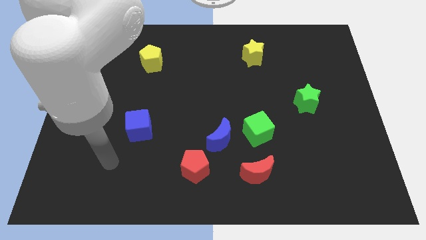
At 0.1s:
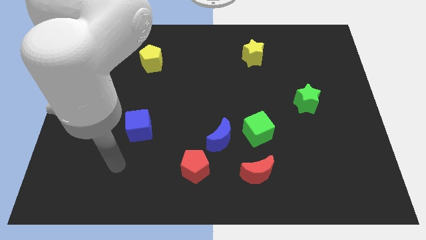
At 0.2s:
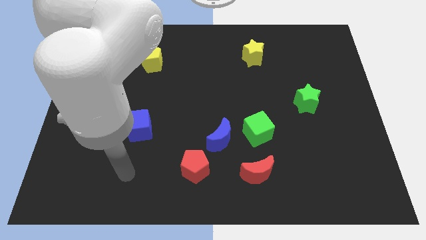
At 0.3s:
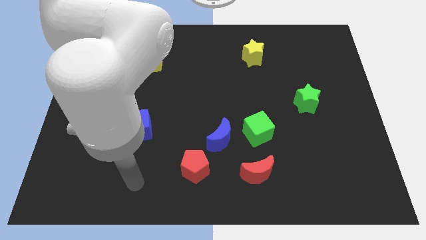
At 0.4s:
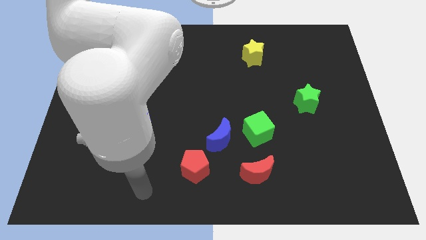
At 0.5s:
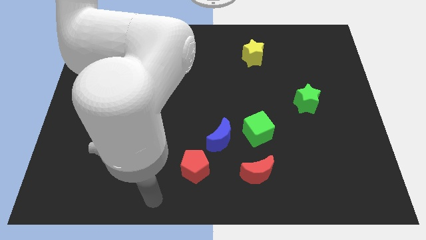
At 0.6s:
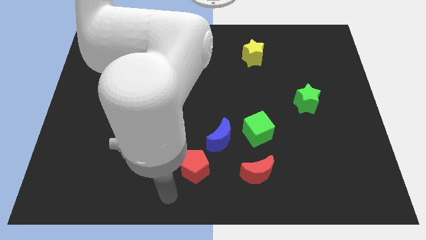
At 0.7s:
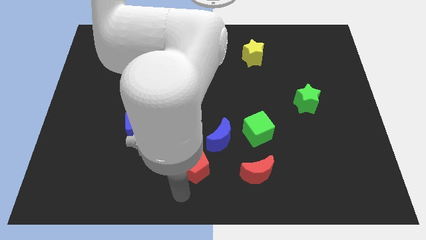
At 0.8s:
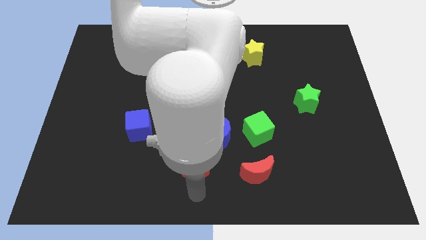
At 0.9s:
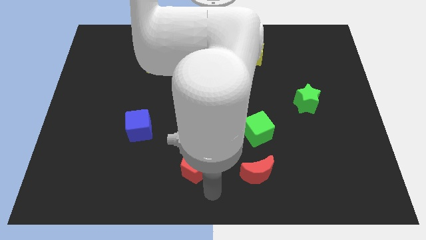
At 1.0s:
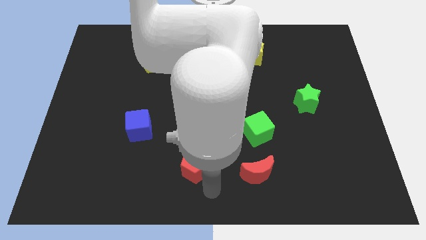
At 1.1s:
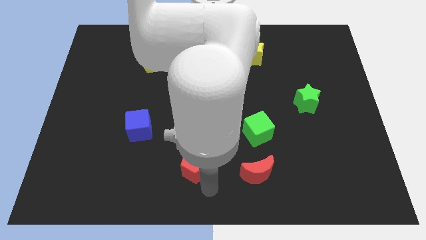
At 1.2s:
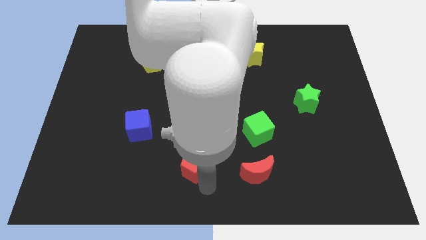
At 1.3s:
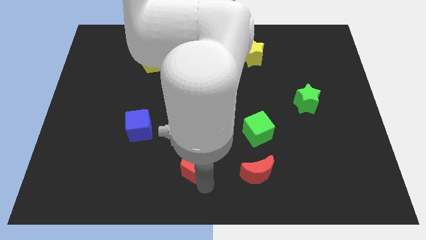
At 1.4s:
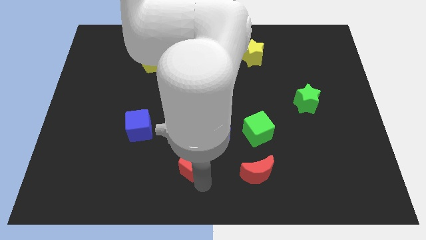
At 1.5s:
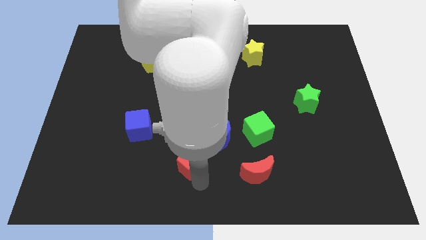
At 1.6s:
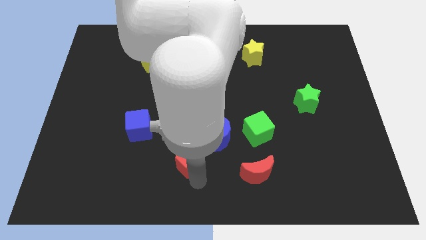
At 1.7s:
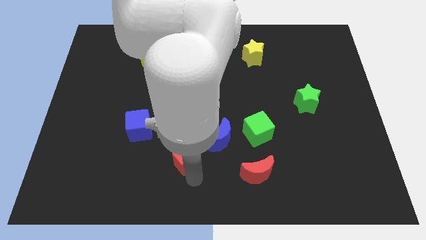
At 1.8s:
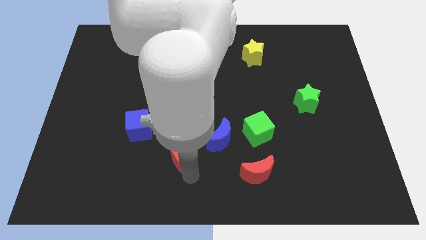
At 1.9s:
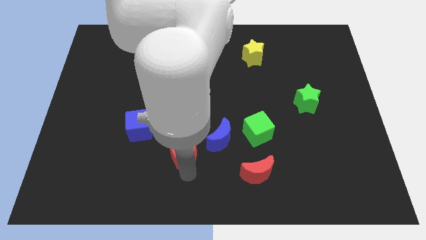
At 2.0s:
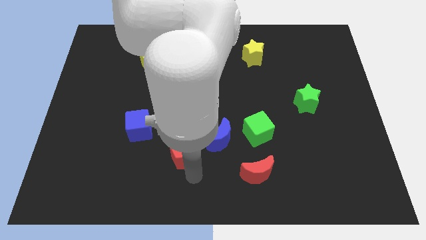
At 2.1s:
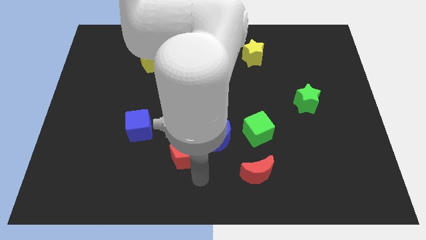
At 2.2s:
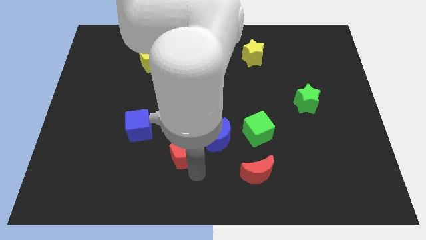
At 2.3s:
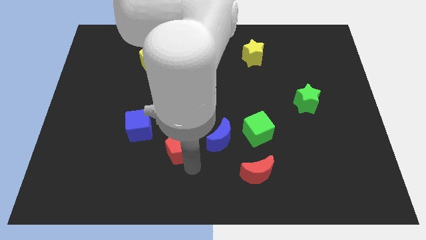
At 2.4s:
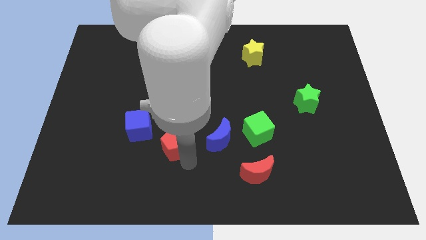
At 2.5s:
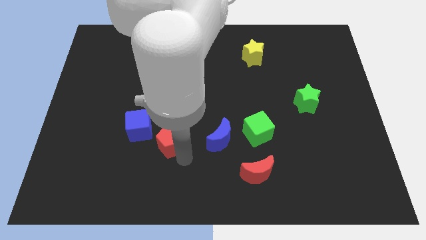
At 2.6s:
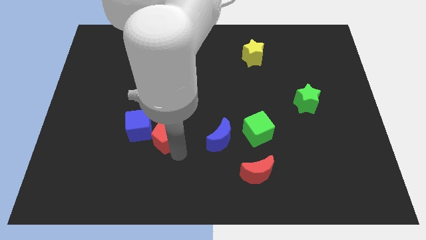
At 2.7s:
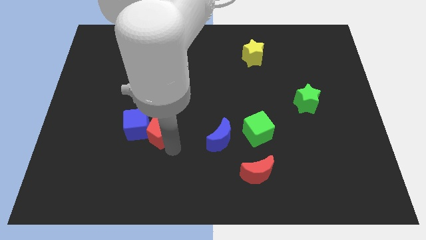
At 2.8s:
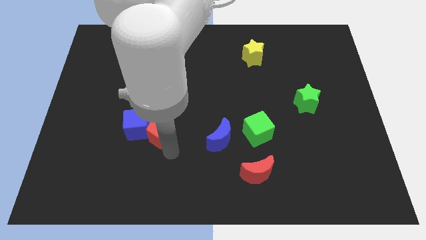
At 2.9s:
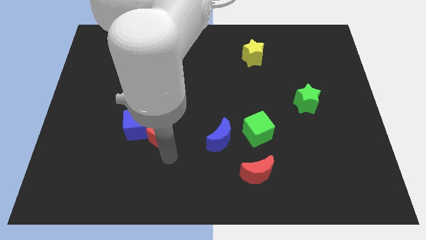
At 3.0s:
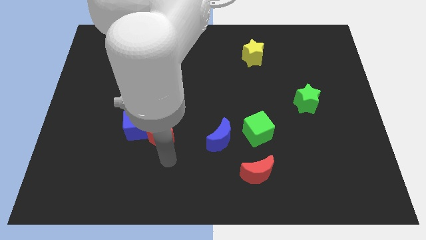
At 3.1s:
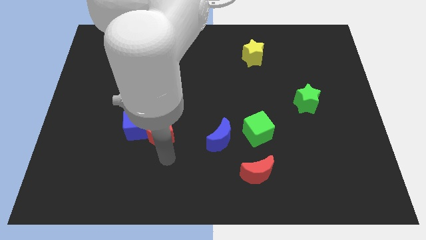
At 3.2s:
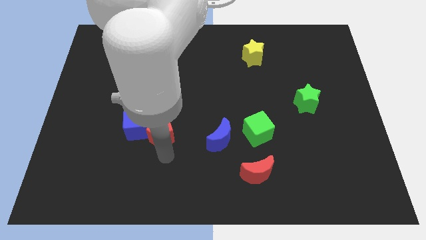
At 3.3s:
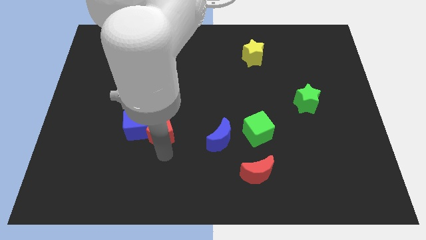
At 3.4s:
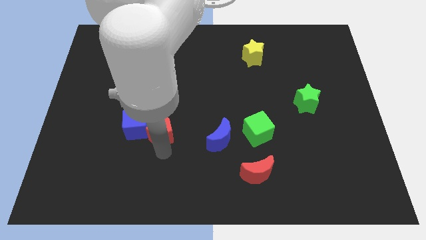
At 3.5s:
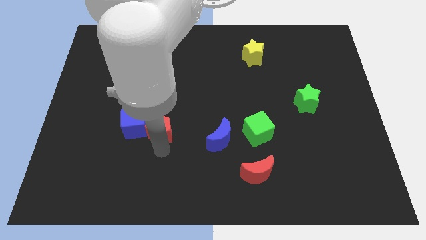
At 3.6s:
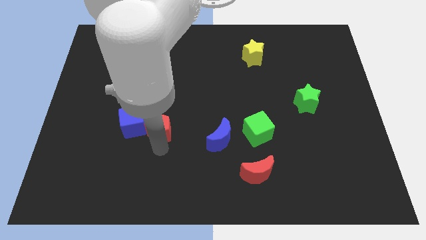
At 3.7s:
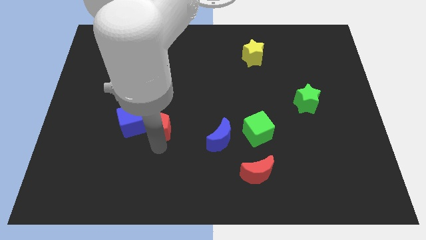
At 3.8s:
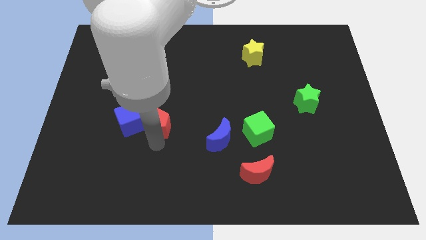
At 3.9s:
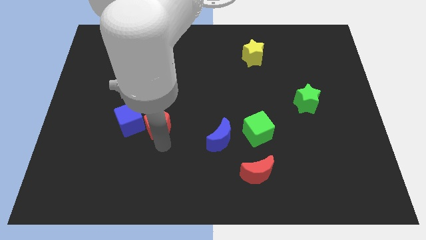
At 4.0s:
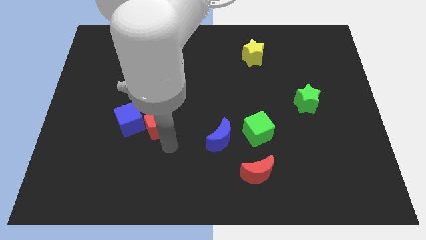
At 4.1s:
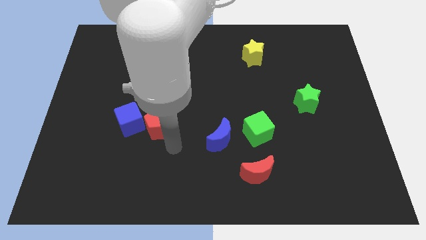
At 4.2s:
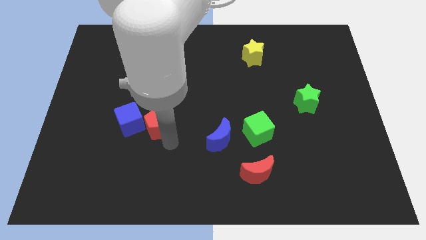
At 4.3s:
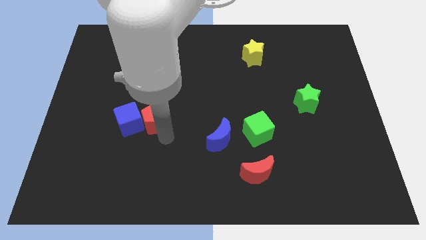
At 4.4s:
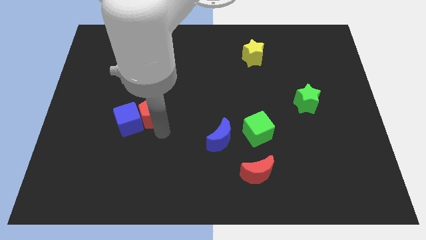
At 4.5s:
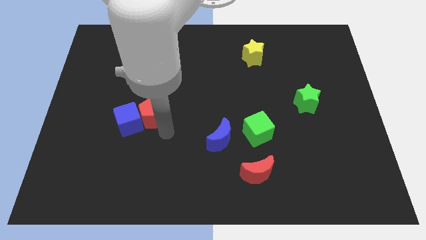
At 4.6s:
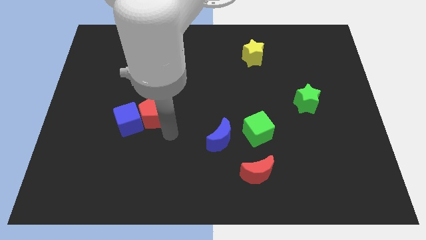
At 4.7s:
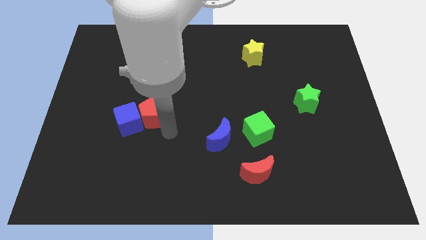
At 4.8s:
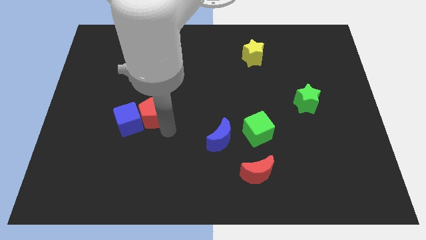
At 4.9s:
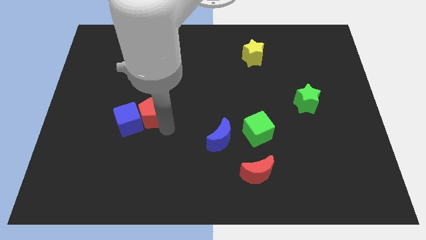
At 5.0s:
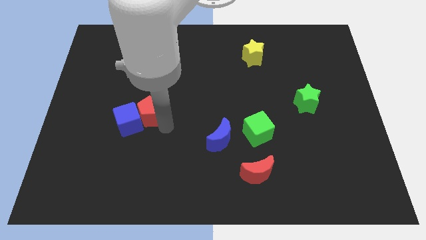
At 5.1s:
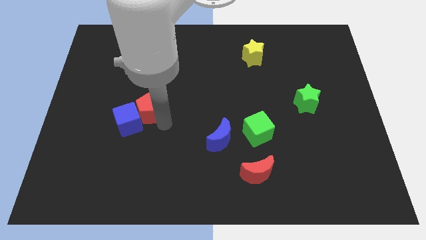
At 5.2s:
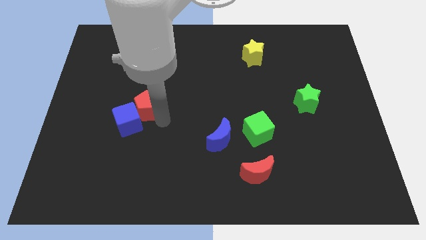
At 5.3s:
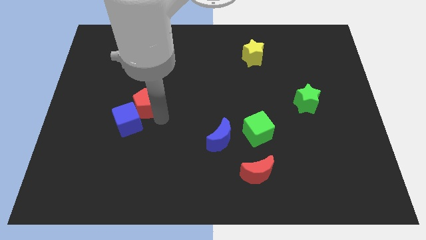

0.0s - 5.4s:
slide the red pentagon up and then to the left

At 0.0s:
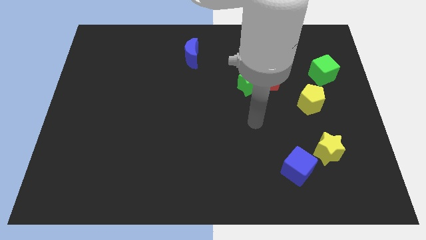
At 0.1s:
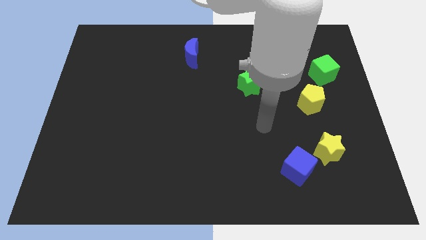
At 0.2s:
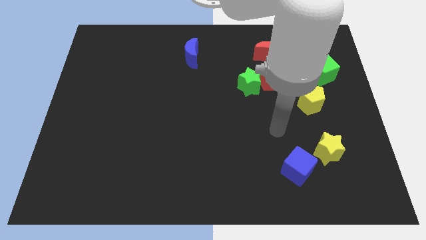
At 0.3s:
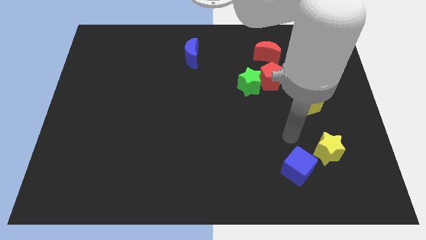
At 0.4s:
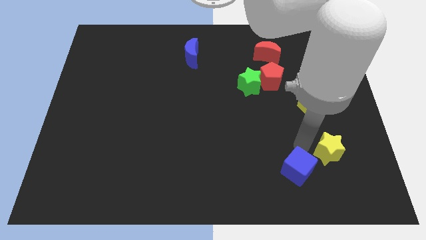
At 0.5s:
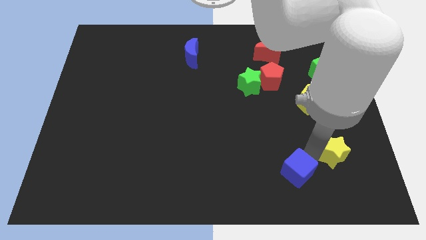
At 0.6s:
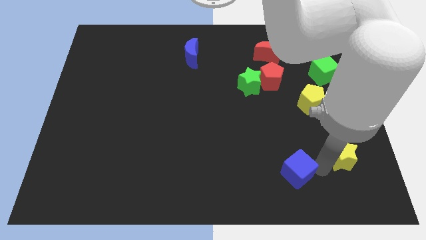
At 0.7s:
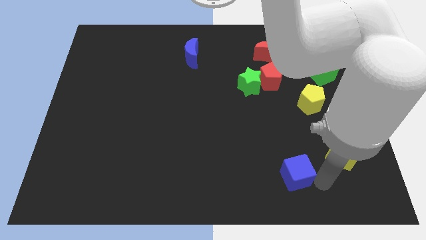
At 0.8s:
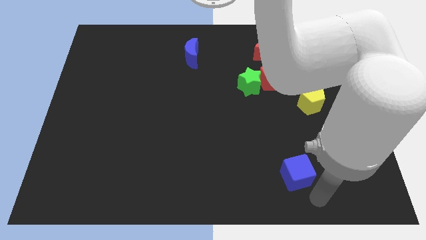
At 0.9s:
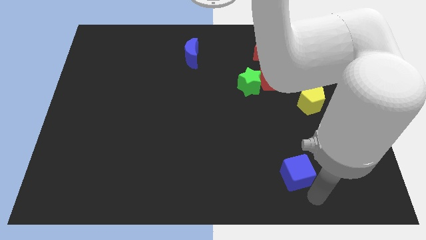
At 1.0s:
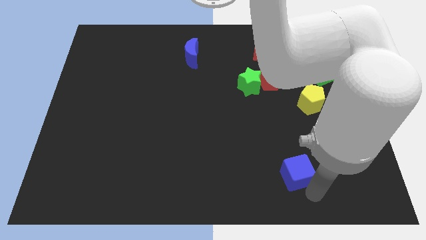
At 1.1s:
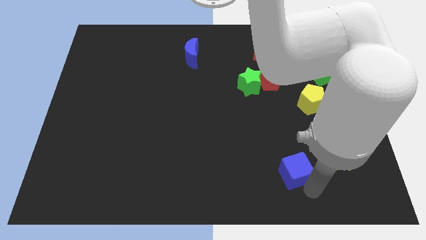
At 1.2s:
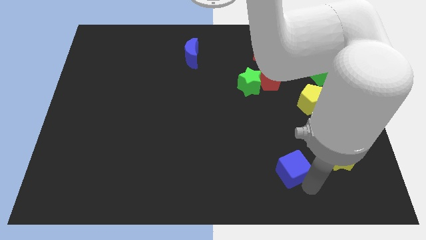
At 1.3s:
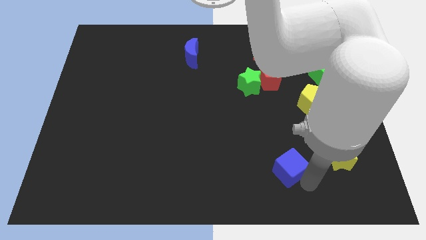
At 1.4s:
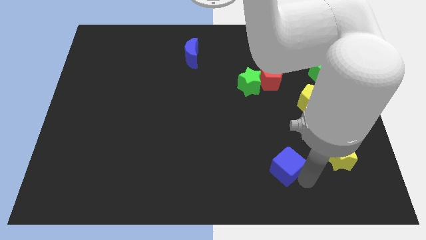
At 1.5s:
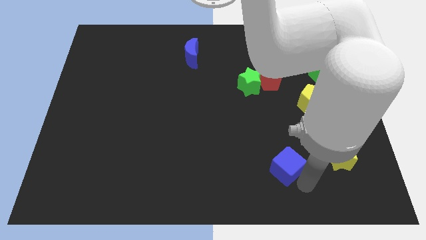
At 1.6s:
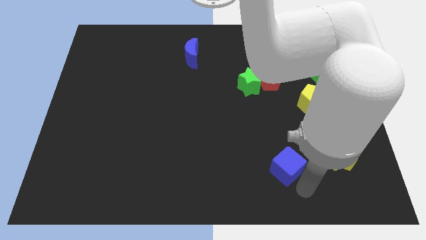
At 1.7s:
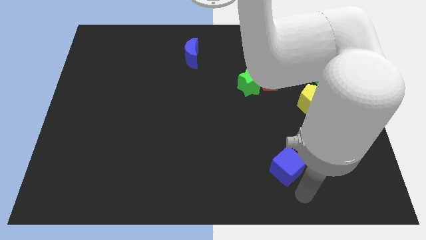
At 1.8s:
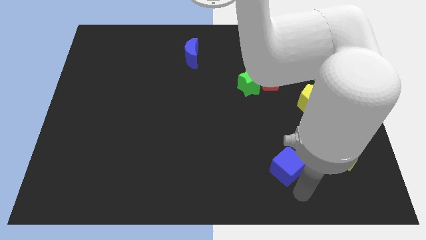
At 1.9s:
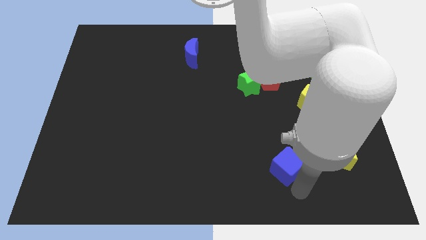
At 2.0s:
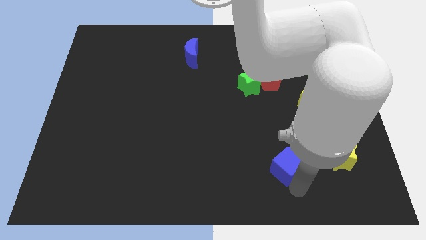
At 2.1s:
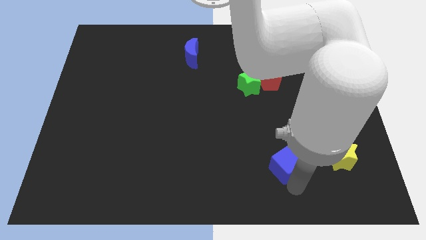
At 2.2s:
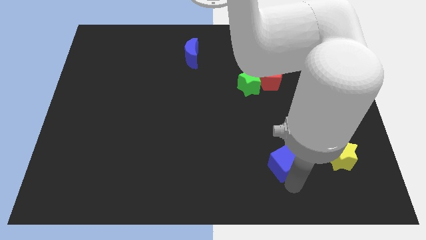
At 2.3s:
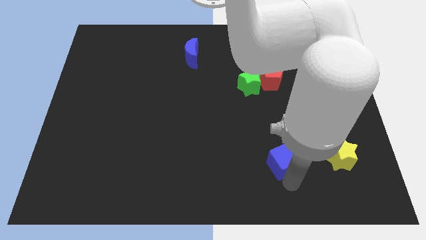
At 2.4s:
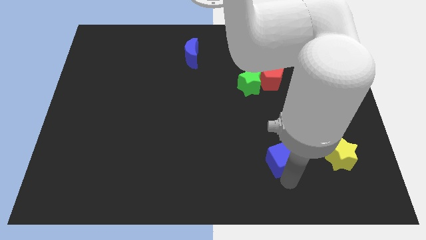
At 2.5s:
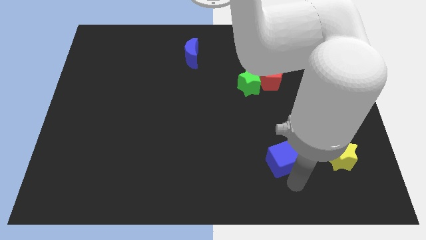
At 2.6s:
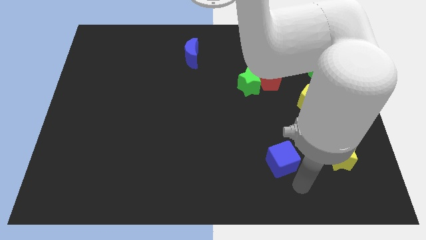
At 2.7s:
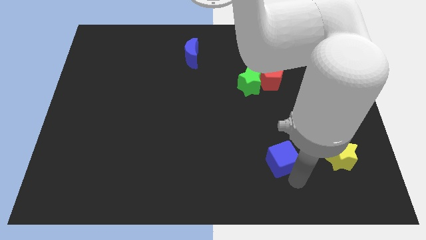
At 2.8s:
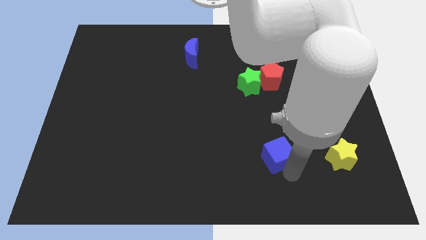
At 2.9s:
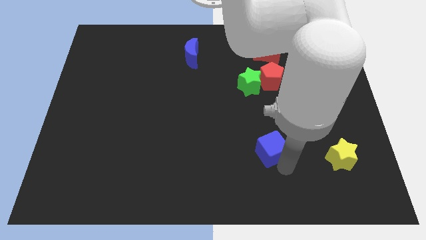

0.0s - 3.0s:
move the blue cube a little up and left
